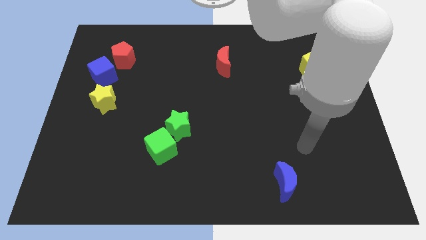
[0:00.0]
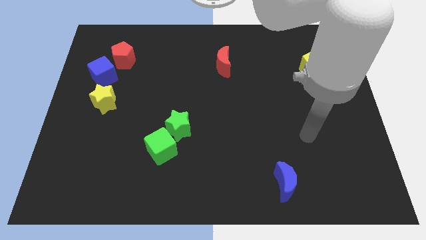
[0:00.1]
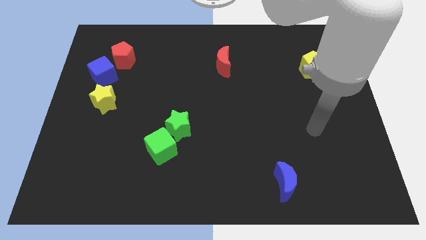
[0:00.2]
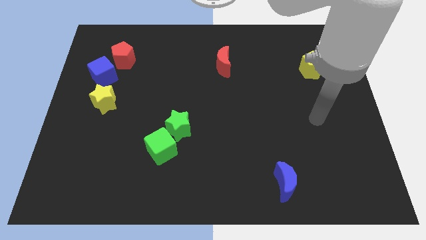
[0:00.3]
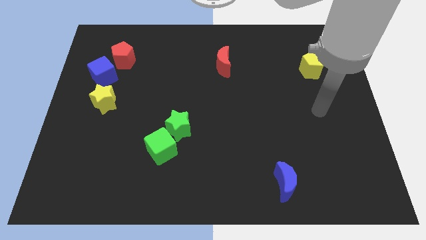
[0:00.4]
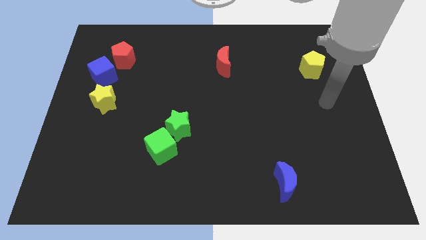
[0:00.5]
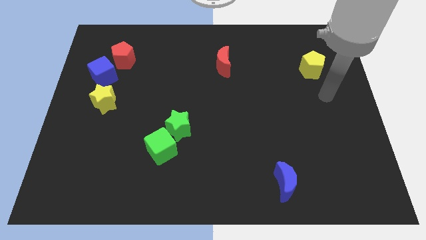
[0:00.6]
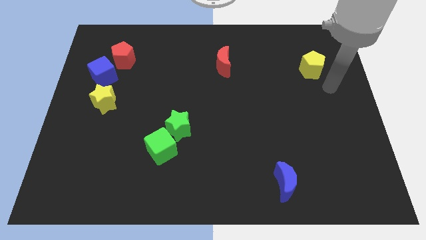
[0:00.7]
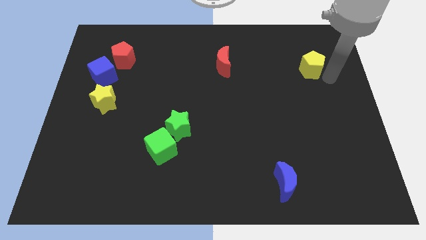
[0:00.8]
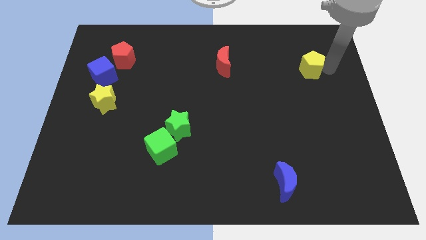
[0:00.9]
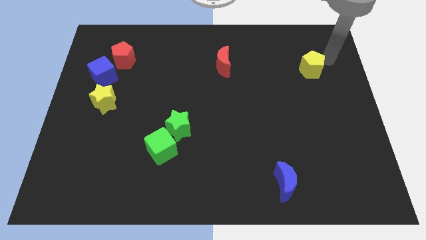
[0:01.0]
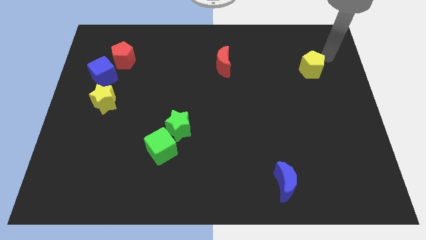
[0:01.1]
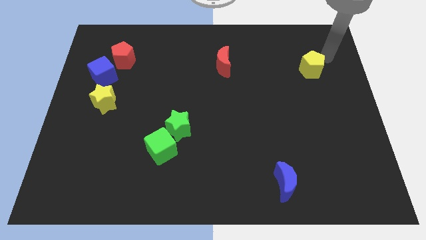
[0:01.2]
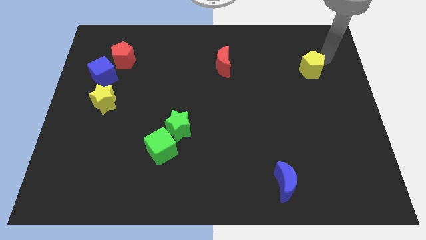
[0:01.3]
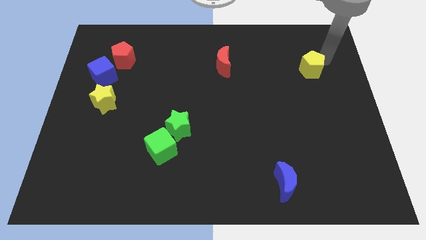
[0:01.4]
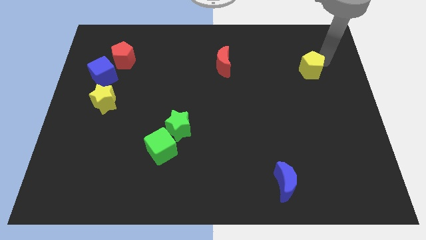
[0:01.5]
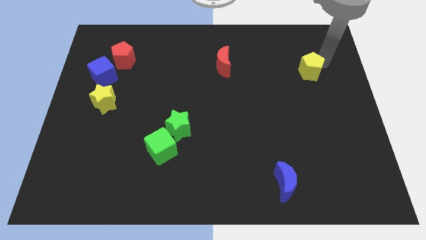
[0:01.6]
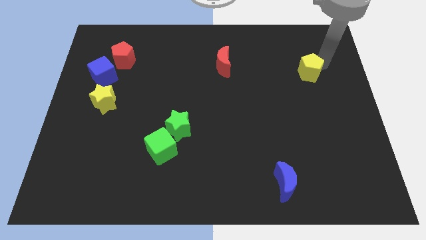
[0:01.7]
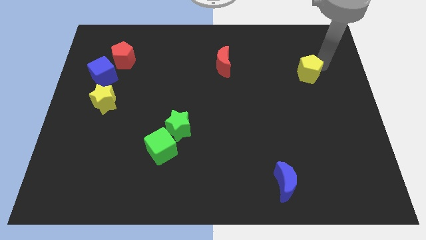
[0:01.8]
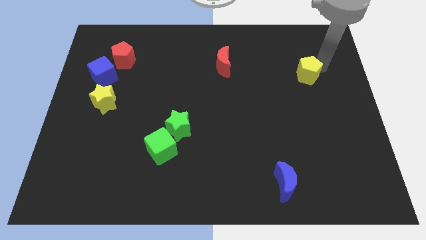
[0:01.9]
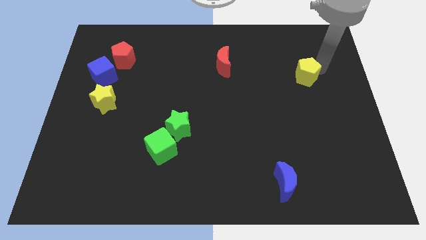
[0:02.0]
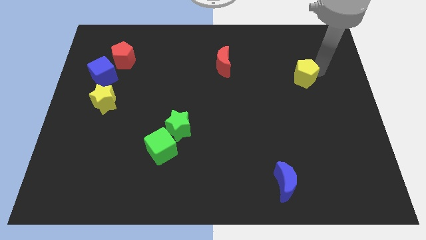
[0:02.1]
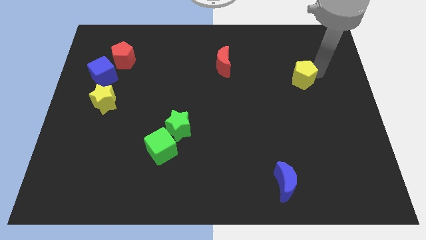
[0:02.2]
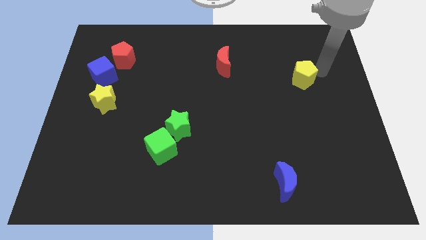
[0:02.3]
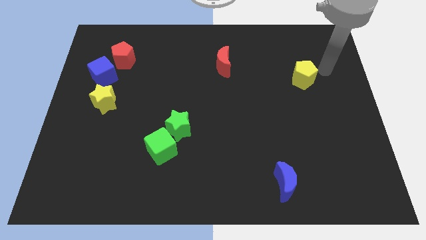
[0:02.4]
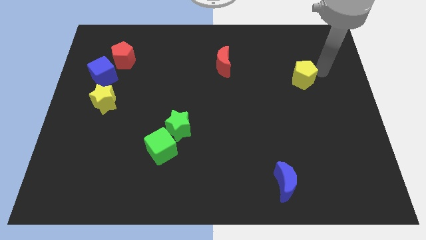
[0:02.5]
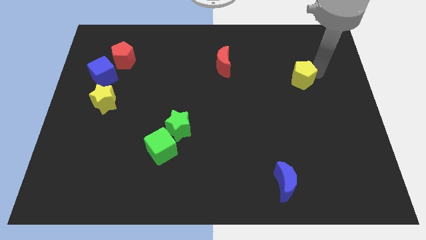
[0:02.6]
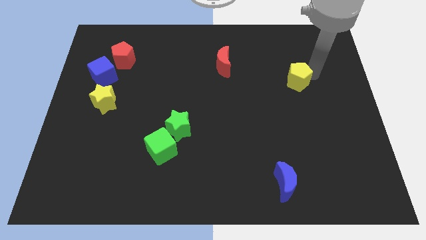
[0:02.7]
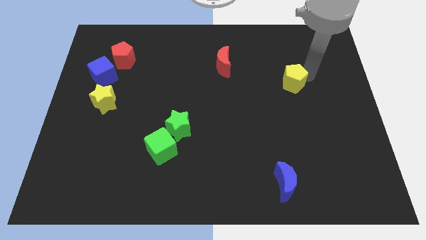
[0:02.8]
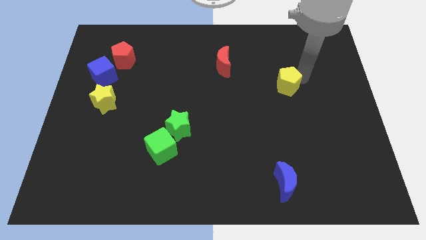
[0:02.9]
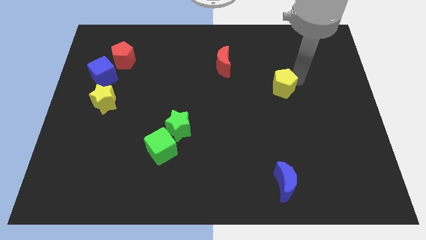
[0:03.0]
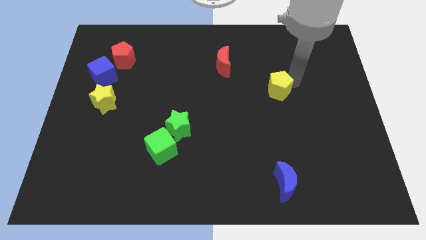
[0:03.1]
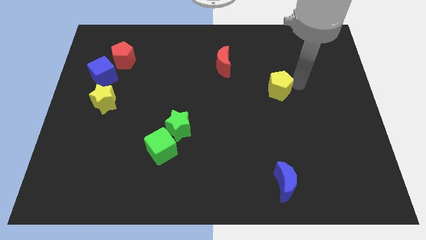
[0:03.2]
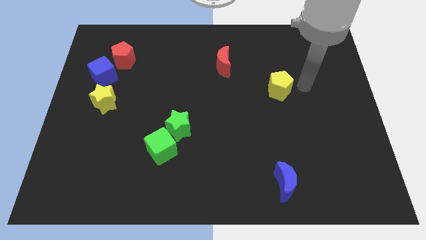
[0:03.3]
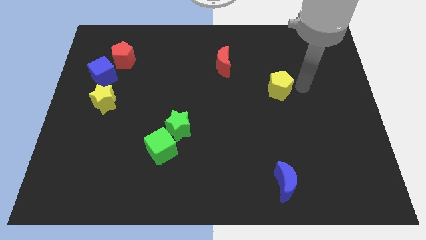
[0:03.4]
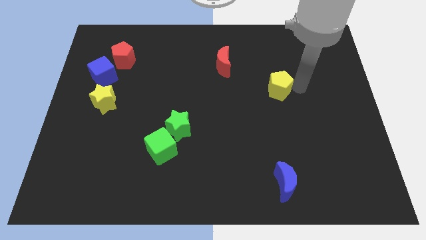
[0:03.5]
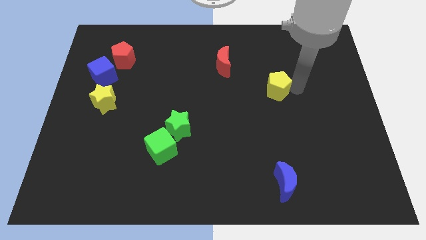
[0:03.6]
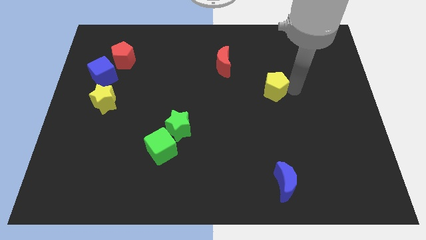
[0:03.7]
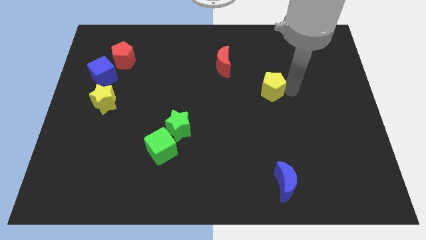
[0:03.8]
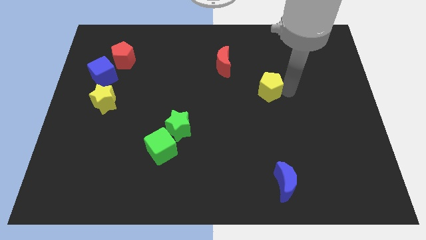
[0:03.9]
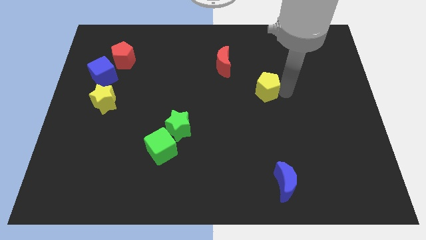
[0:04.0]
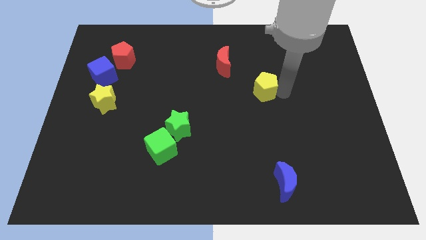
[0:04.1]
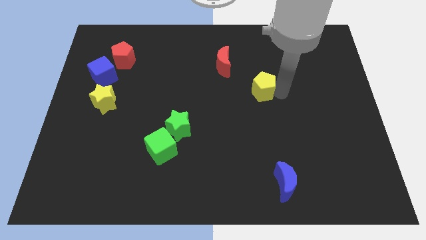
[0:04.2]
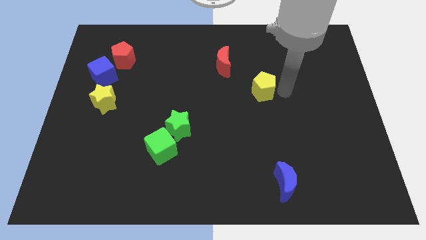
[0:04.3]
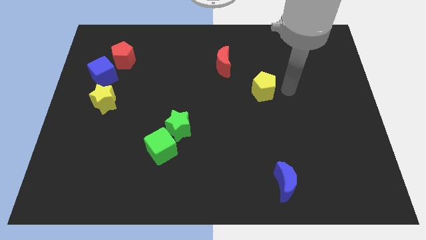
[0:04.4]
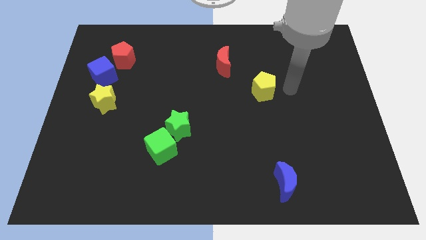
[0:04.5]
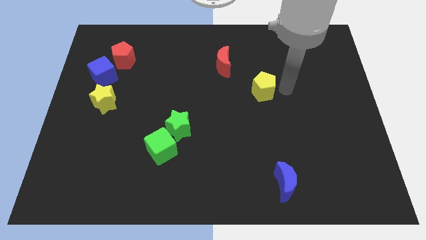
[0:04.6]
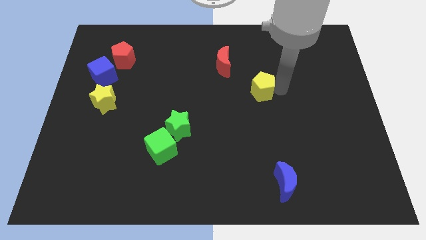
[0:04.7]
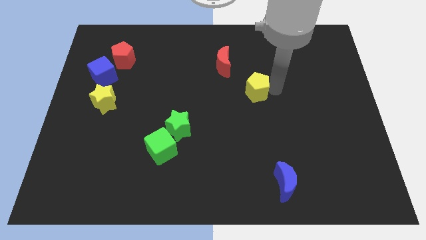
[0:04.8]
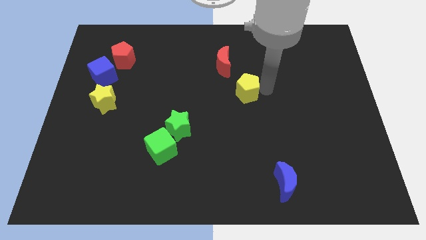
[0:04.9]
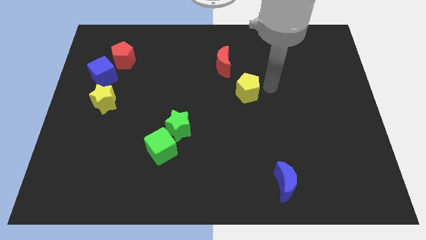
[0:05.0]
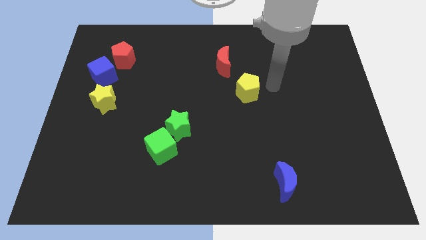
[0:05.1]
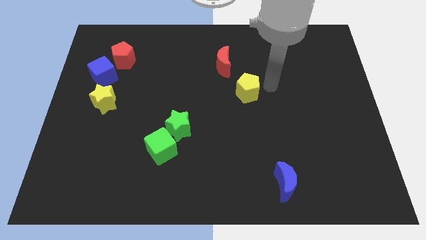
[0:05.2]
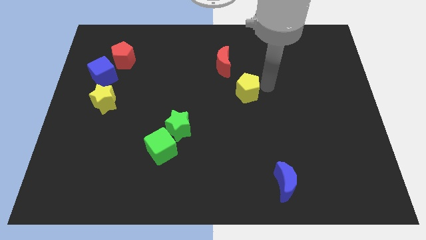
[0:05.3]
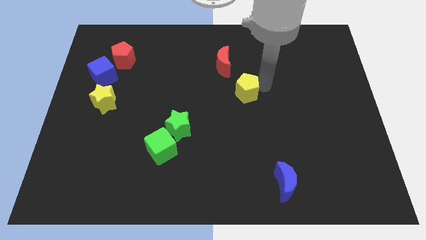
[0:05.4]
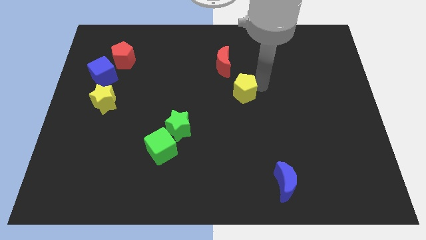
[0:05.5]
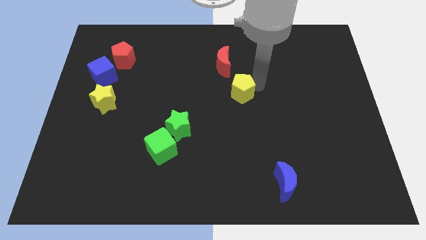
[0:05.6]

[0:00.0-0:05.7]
push the yellow pentagon below the red moon

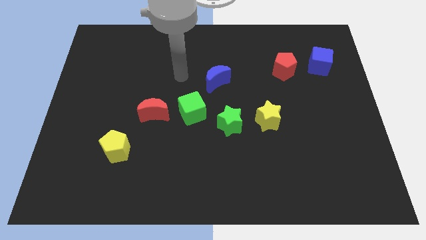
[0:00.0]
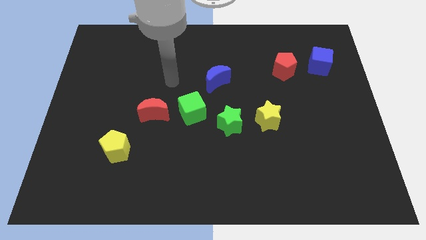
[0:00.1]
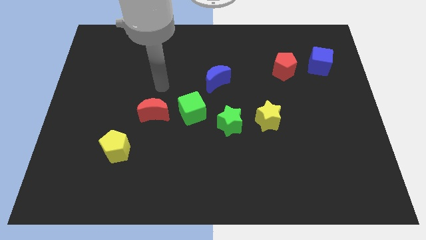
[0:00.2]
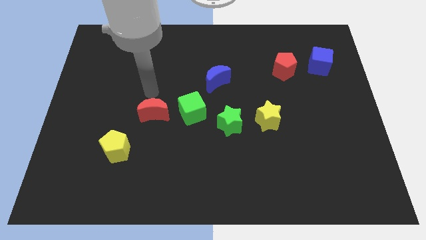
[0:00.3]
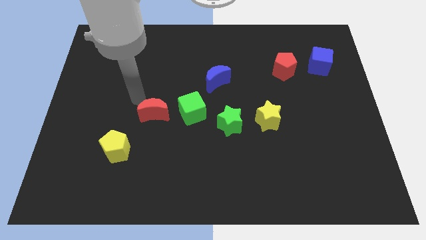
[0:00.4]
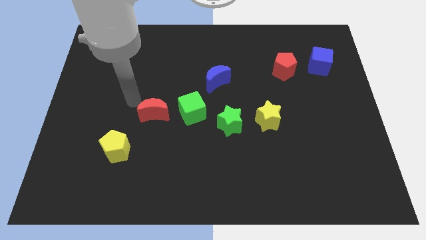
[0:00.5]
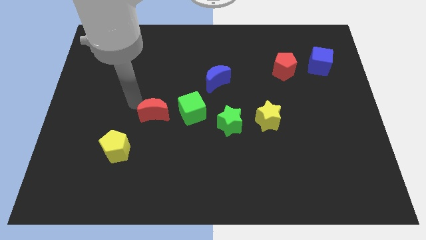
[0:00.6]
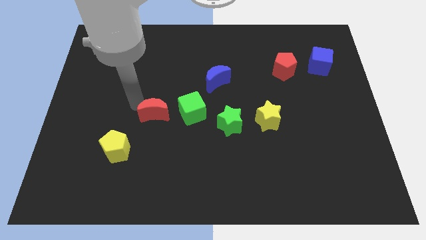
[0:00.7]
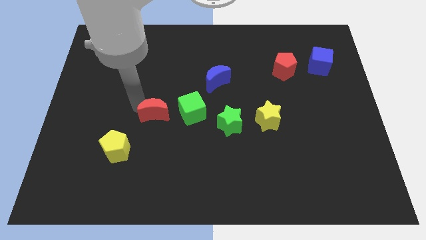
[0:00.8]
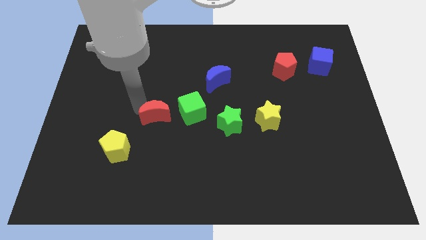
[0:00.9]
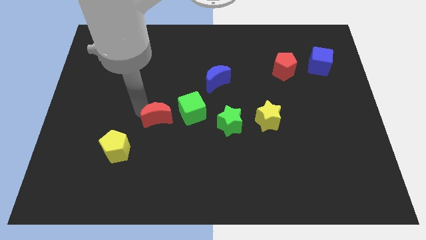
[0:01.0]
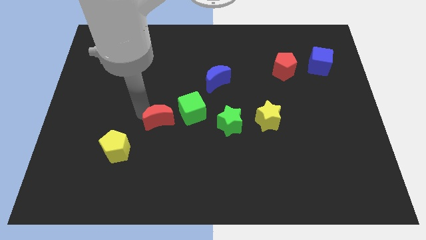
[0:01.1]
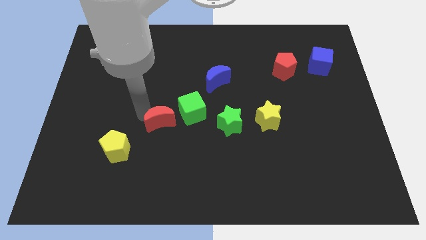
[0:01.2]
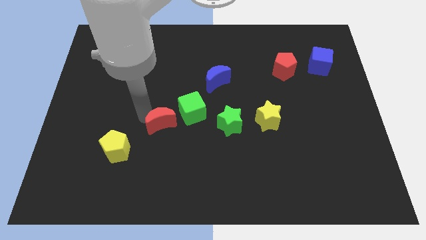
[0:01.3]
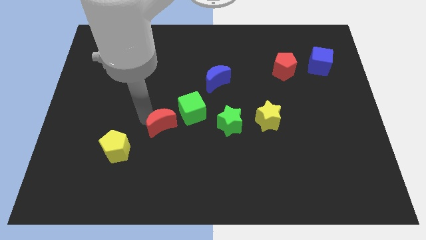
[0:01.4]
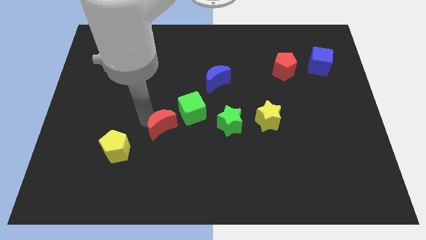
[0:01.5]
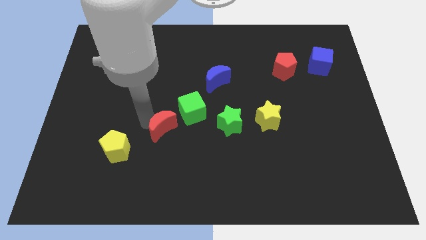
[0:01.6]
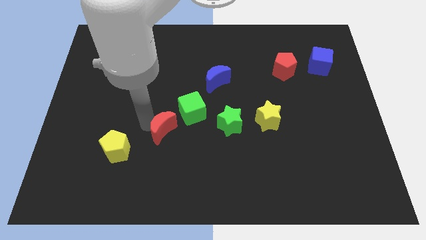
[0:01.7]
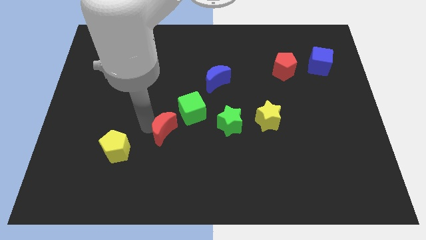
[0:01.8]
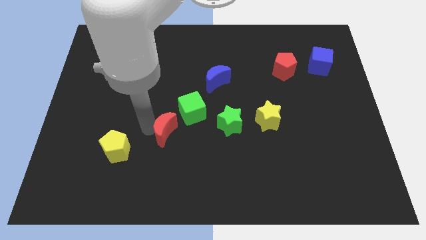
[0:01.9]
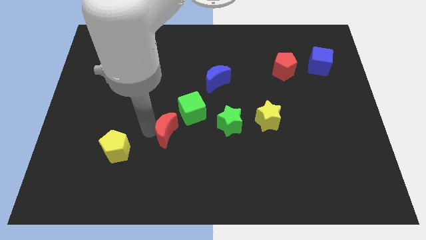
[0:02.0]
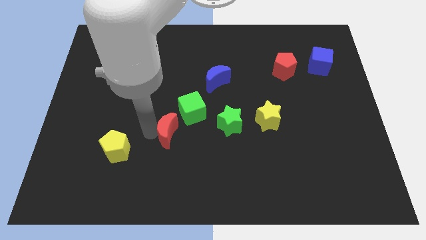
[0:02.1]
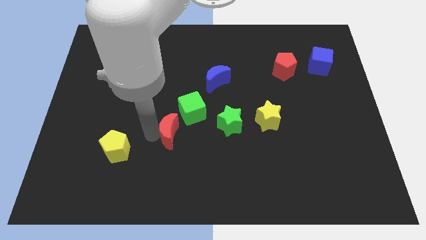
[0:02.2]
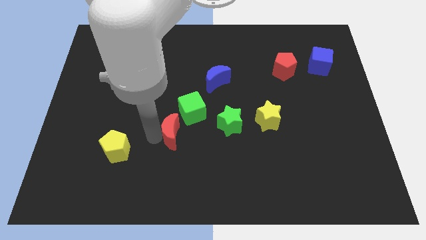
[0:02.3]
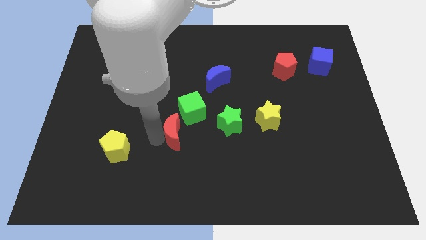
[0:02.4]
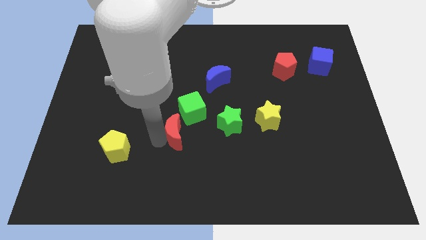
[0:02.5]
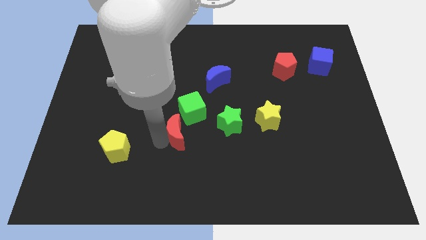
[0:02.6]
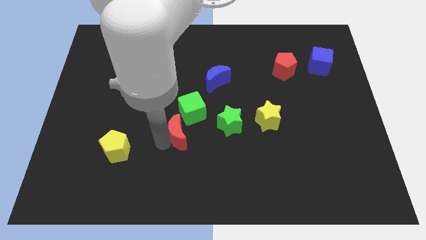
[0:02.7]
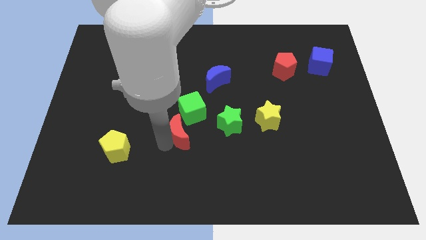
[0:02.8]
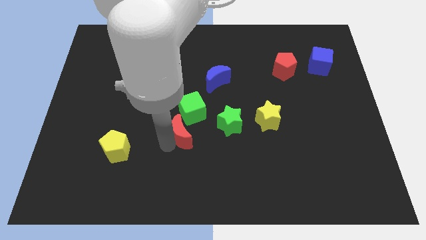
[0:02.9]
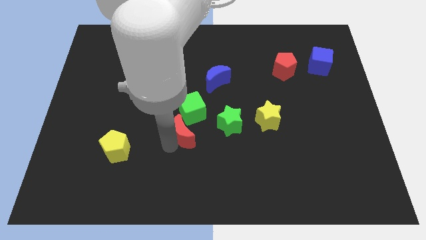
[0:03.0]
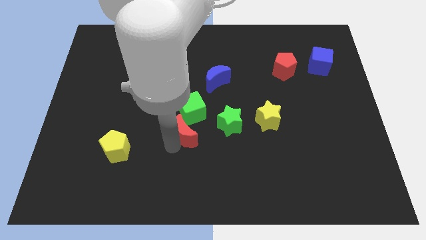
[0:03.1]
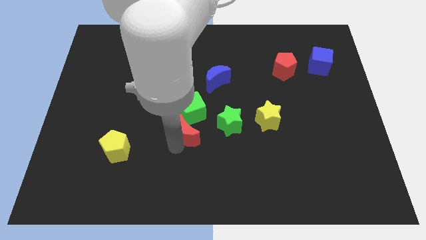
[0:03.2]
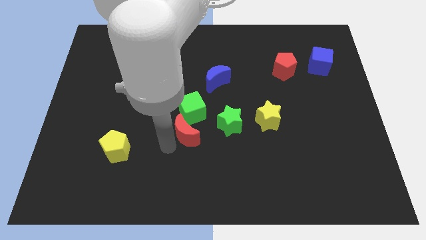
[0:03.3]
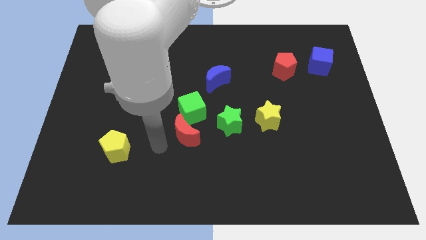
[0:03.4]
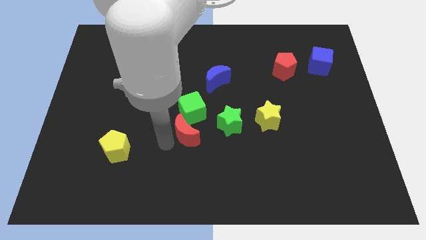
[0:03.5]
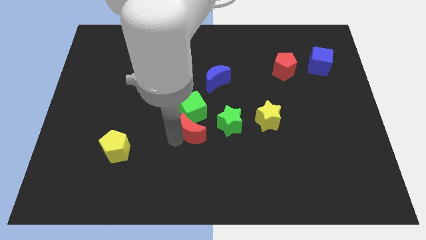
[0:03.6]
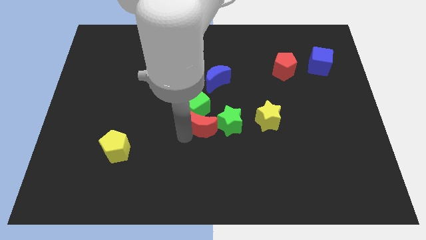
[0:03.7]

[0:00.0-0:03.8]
put the red moon left of the yellow star
